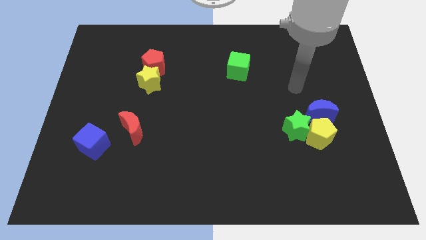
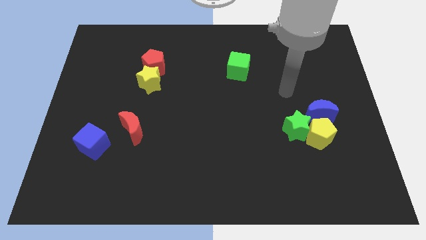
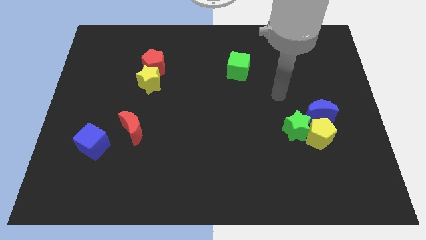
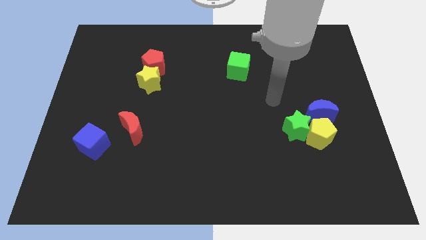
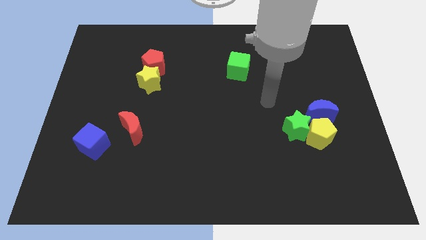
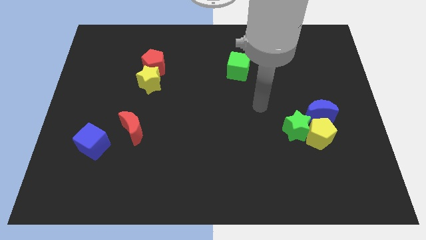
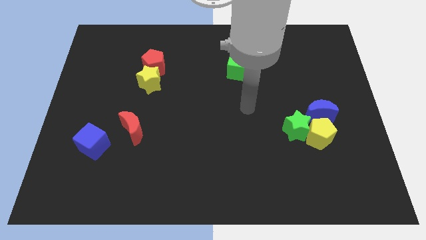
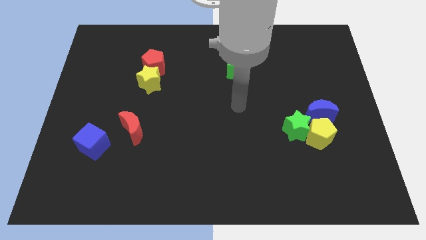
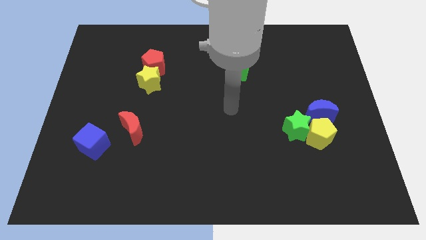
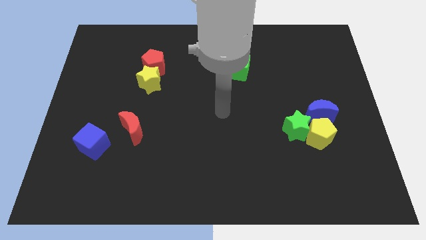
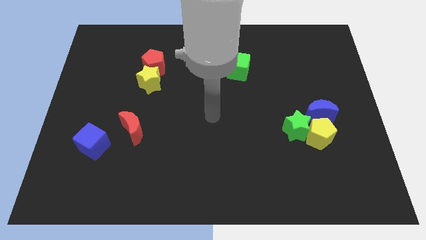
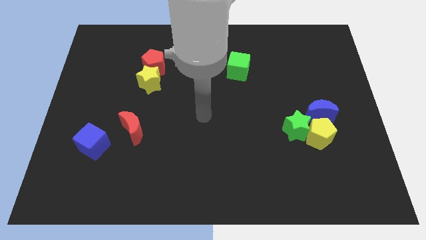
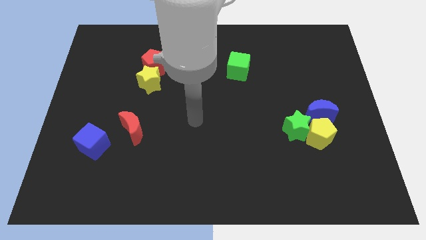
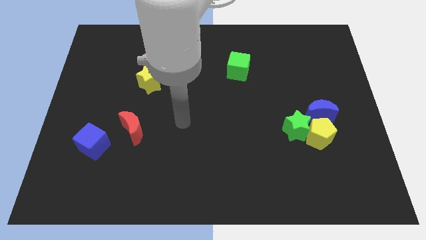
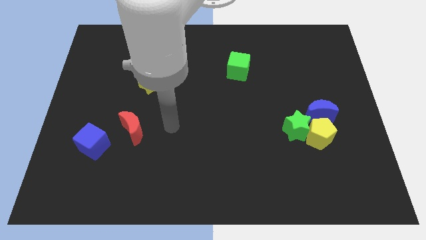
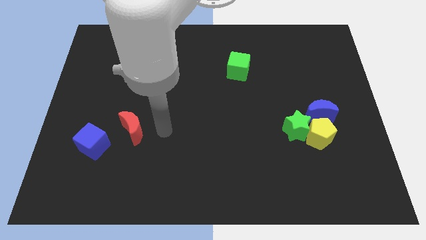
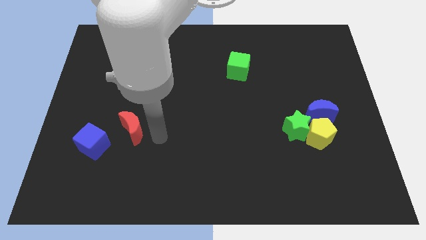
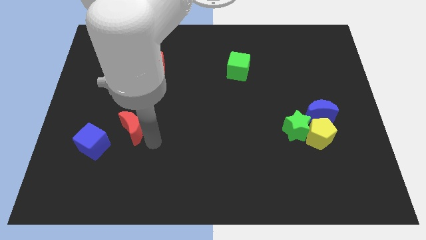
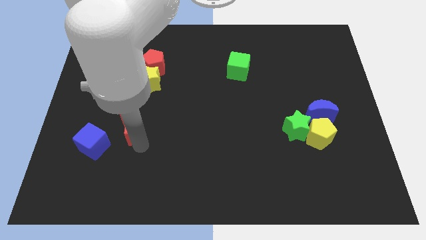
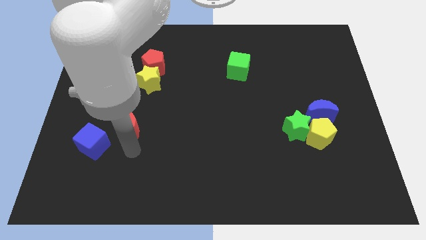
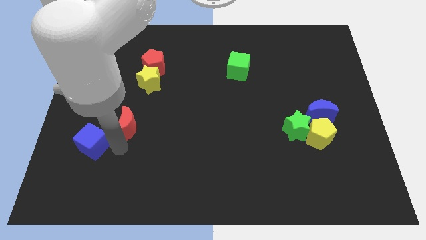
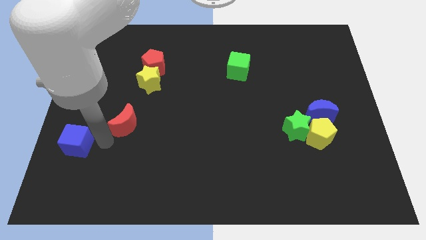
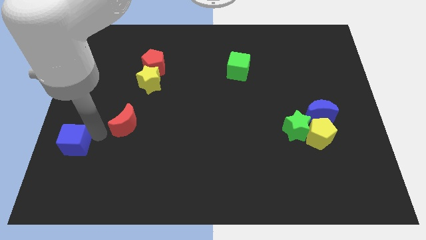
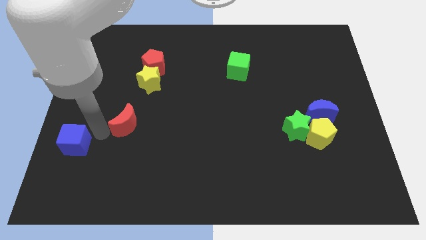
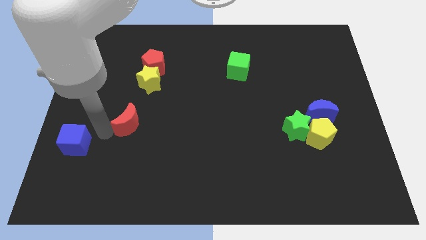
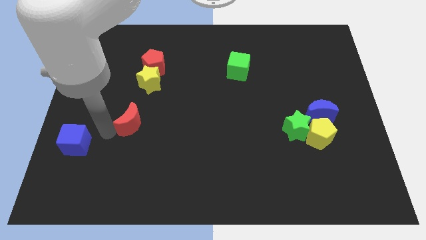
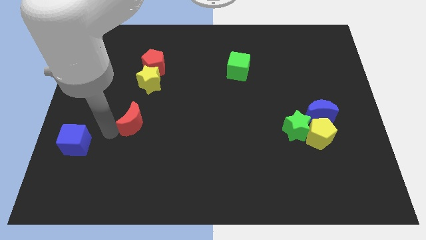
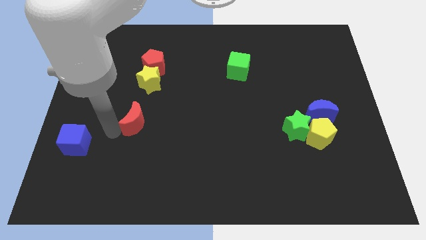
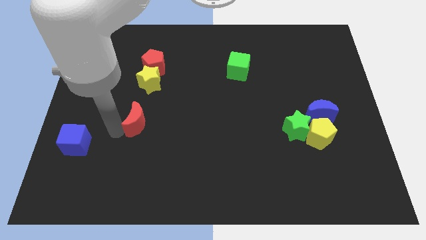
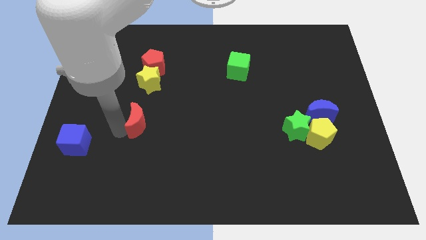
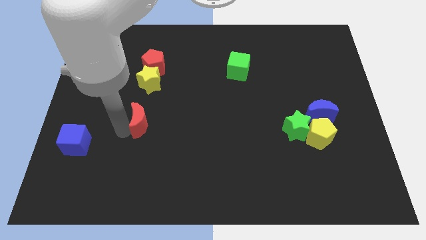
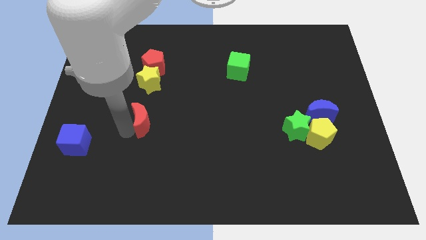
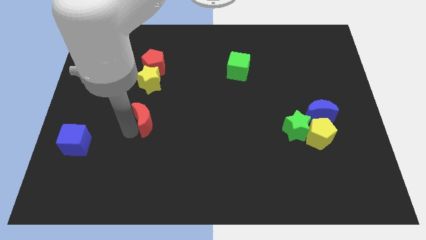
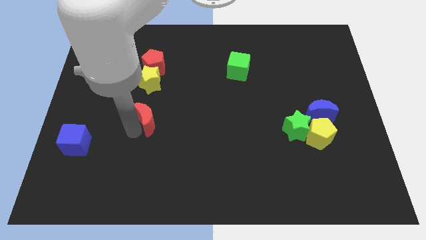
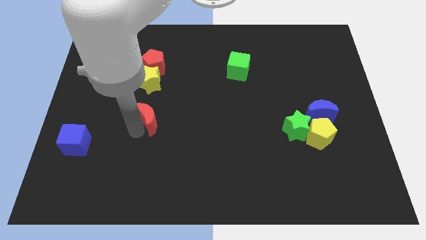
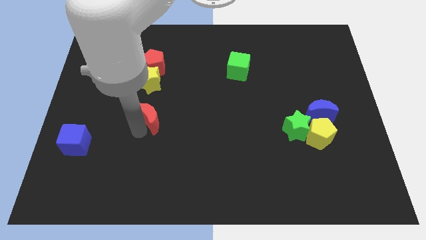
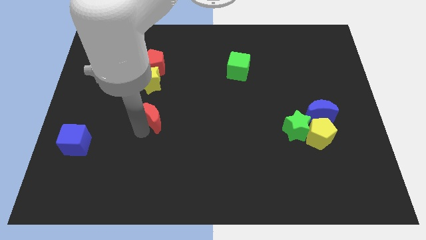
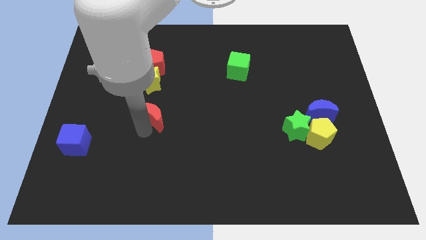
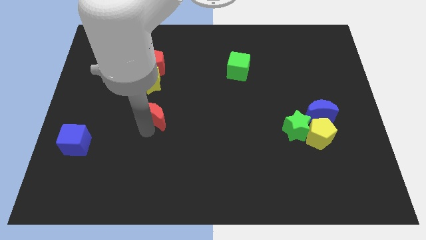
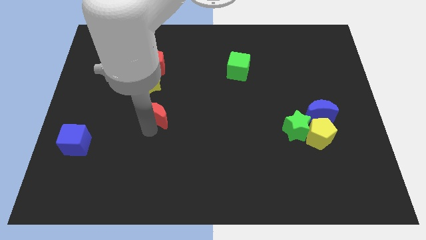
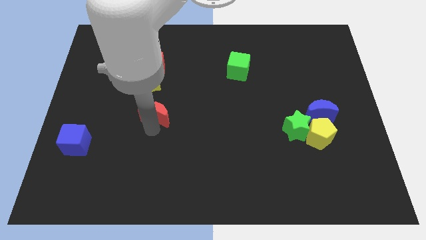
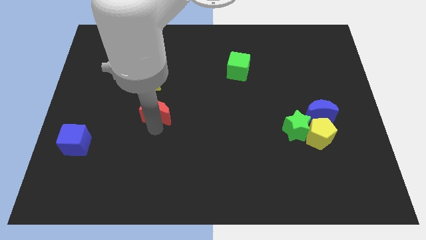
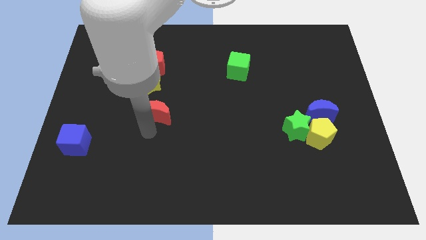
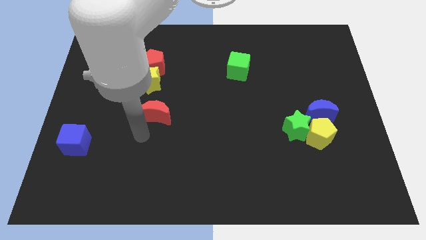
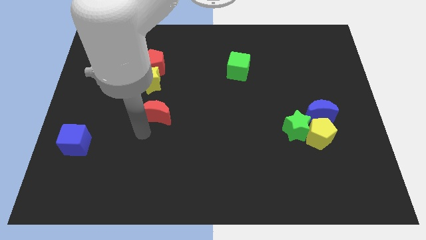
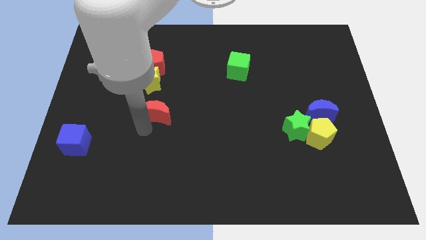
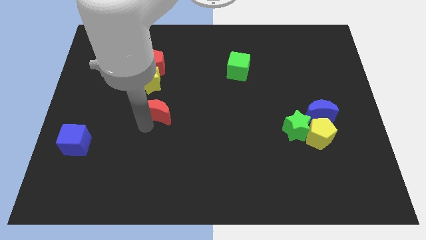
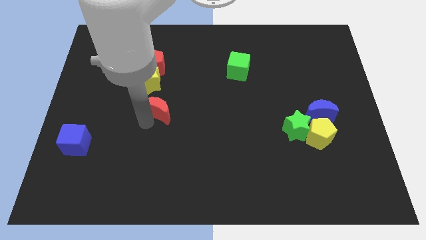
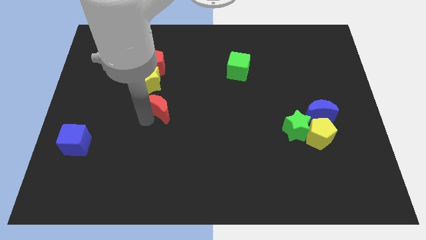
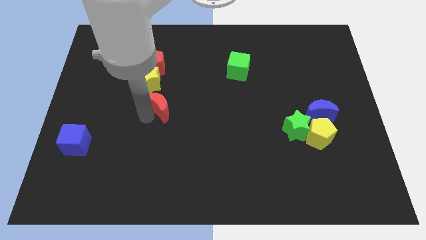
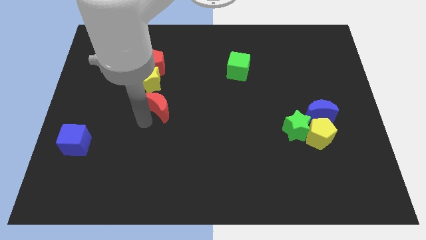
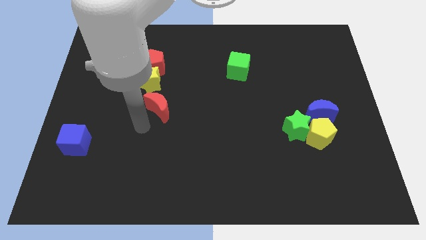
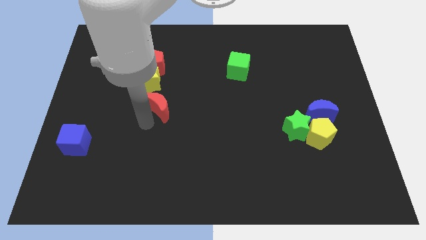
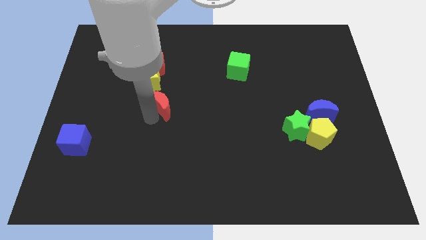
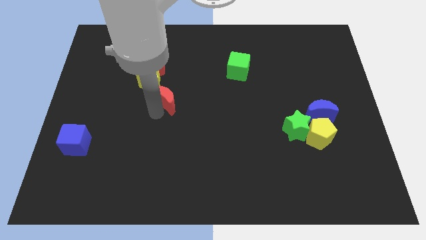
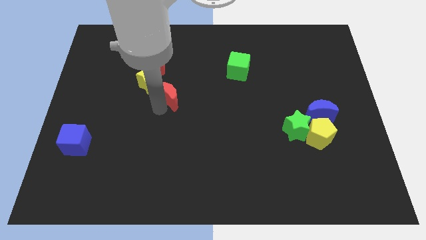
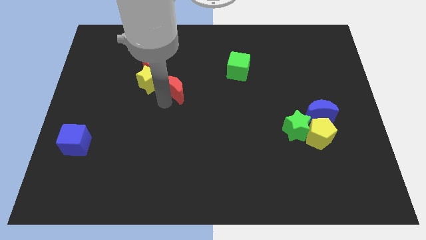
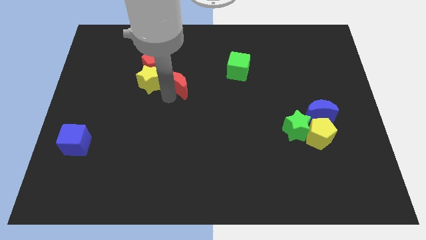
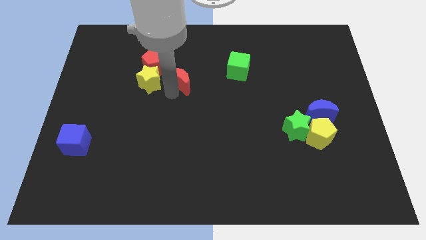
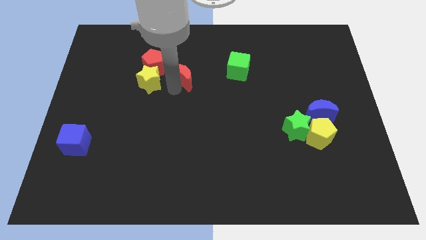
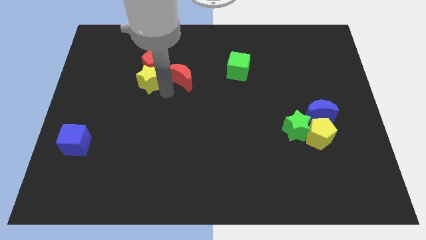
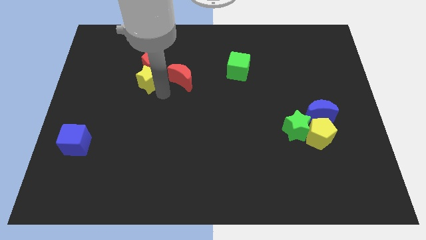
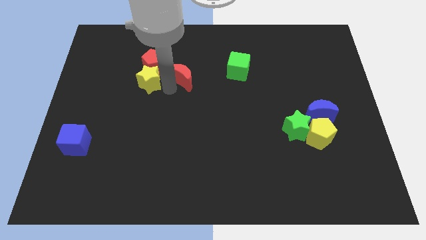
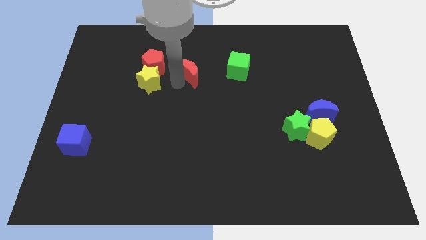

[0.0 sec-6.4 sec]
move the red moon upwards and right diagonally

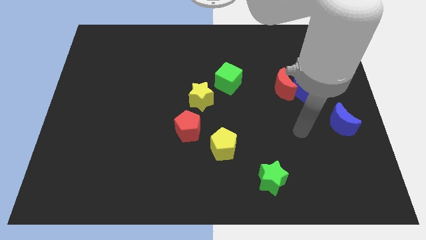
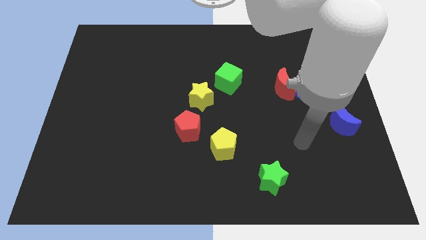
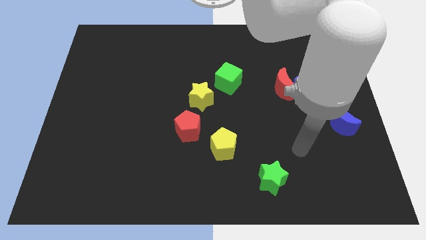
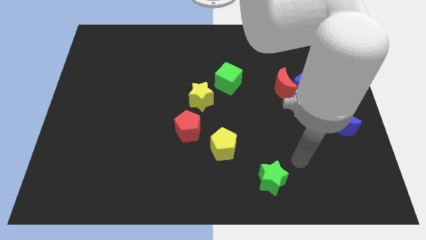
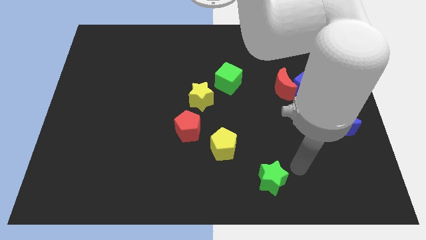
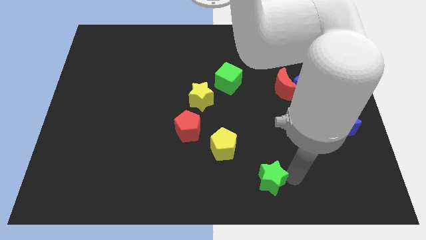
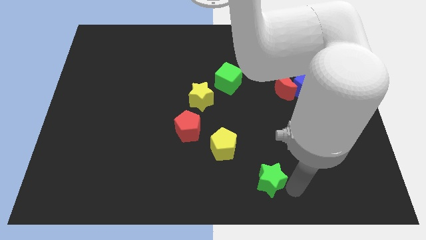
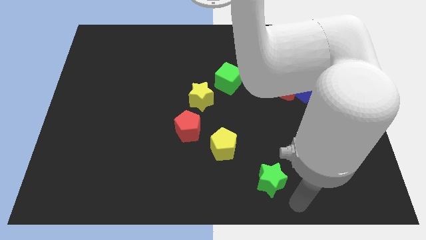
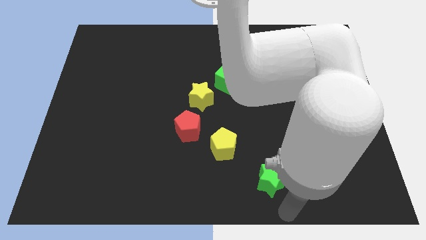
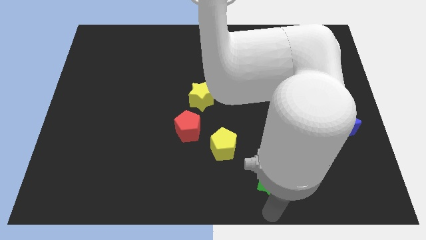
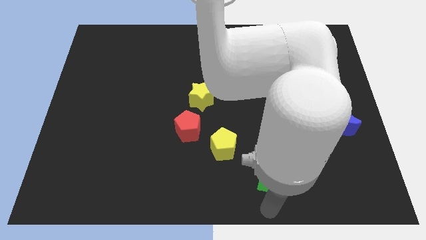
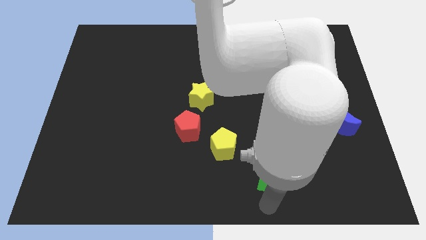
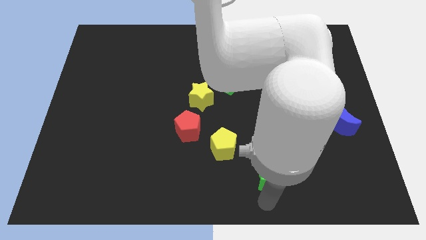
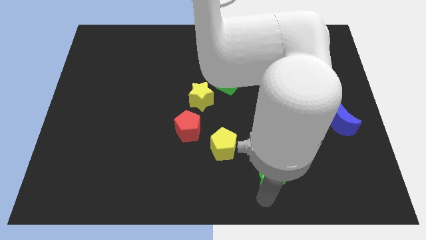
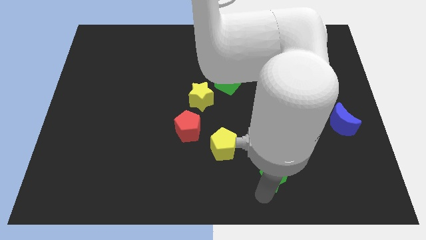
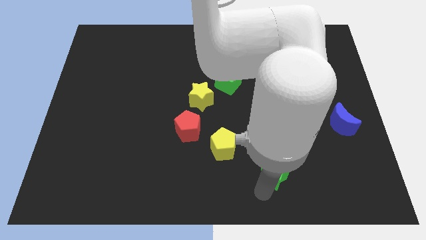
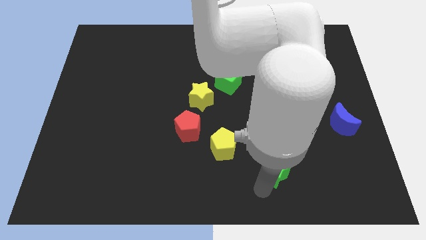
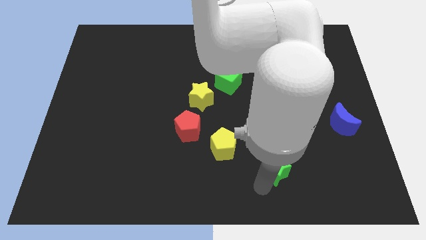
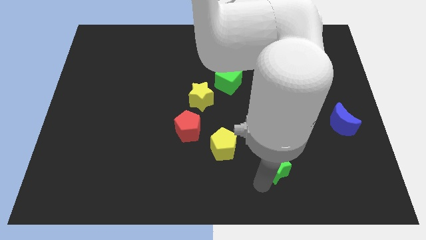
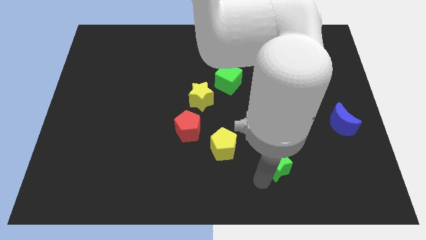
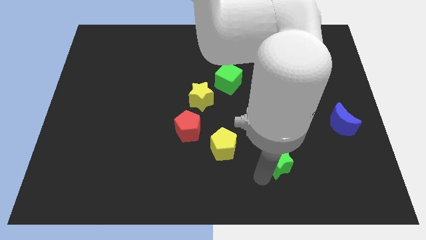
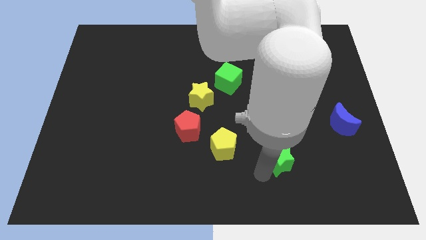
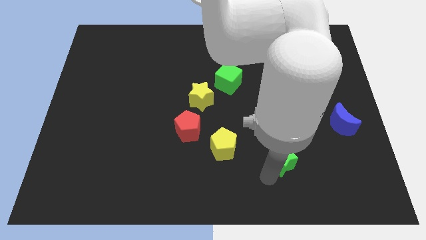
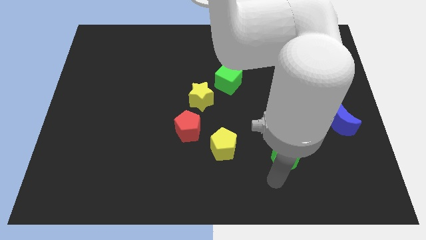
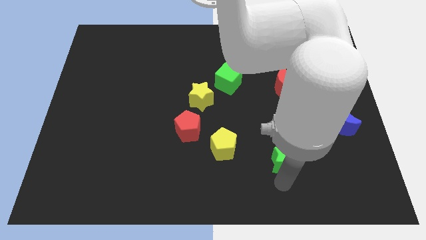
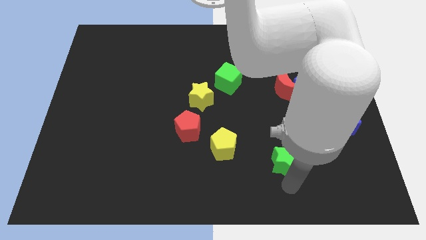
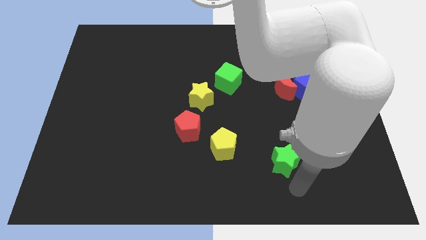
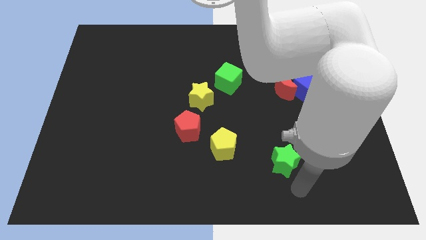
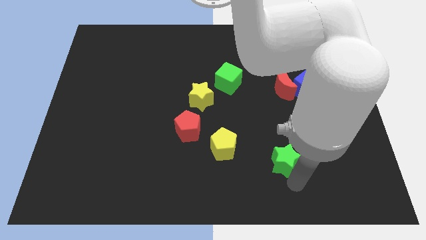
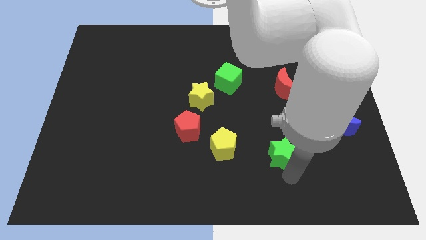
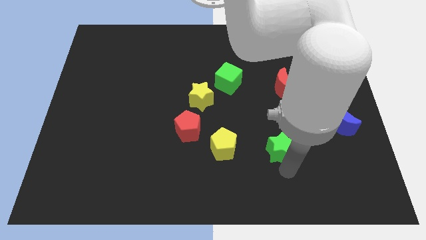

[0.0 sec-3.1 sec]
move the green star a bit upwards
